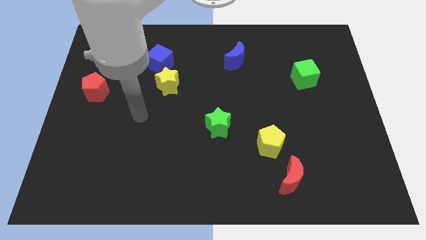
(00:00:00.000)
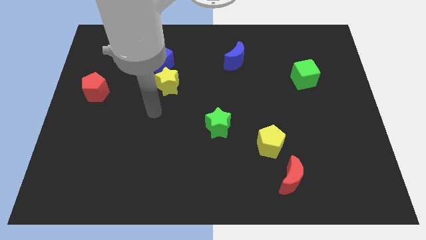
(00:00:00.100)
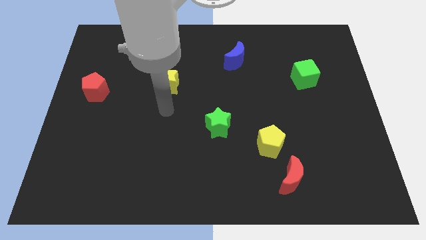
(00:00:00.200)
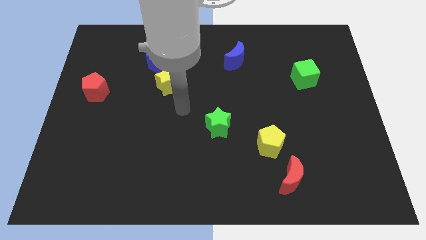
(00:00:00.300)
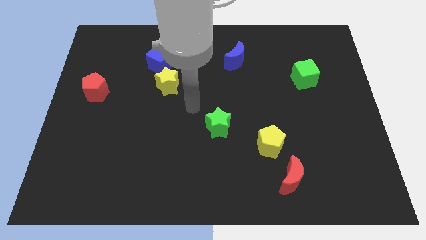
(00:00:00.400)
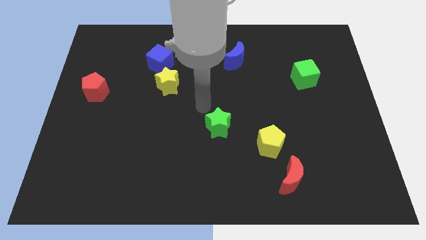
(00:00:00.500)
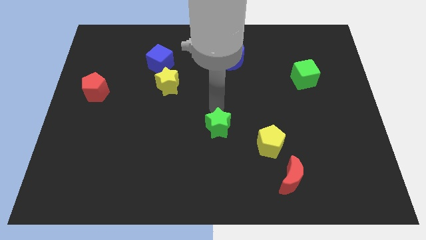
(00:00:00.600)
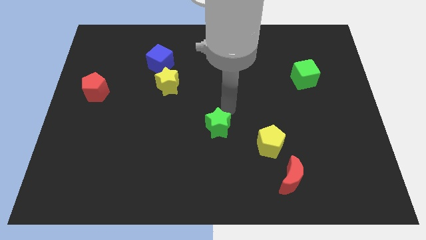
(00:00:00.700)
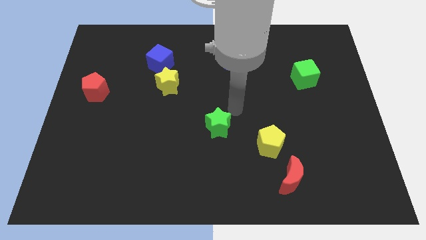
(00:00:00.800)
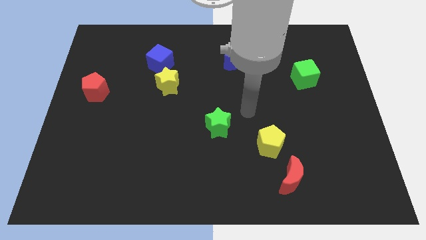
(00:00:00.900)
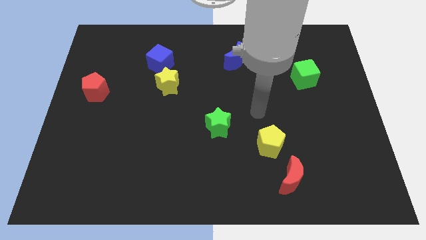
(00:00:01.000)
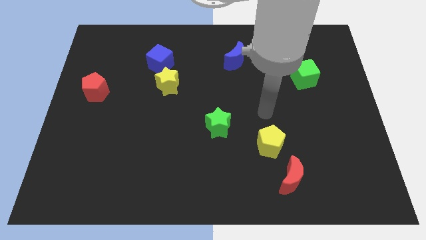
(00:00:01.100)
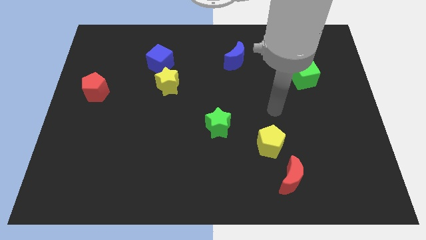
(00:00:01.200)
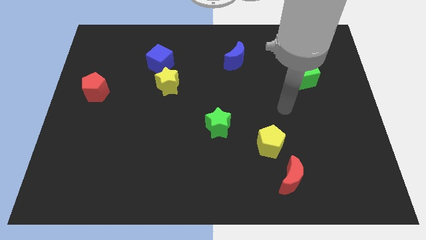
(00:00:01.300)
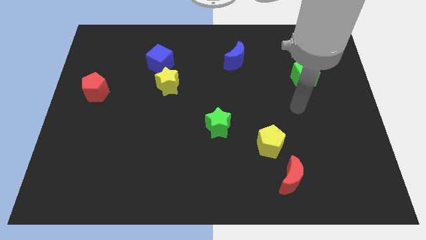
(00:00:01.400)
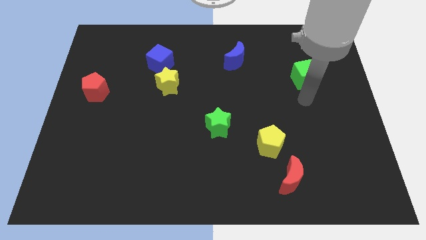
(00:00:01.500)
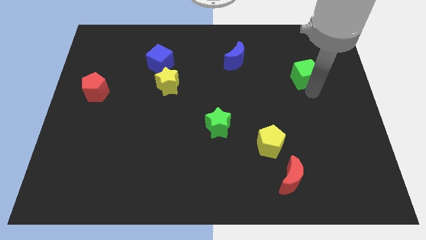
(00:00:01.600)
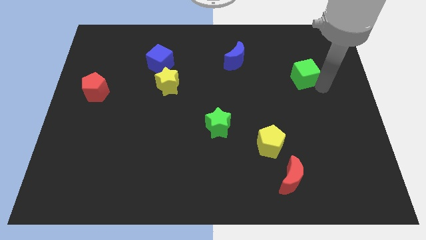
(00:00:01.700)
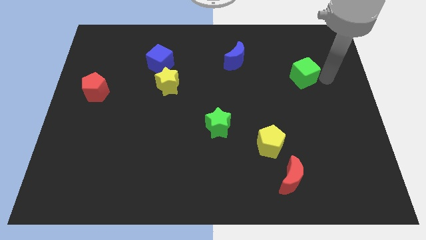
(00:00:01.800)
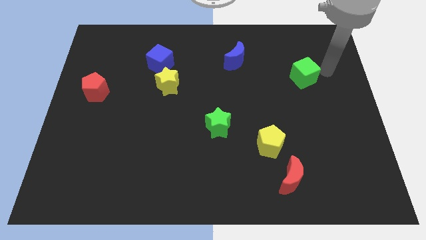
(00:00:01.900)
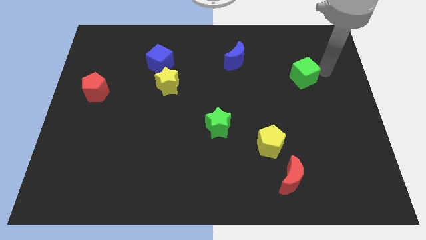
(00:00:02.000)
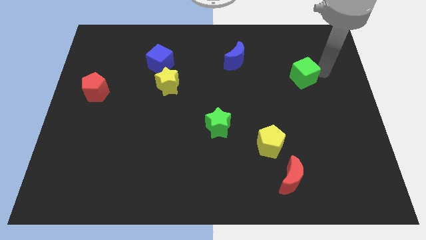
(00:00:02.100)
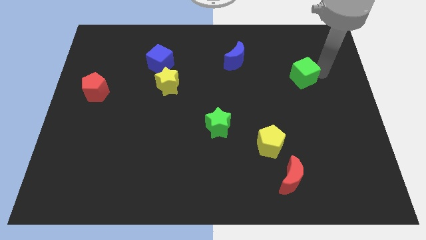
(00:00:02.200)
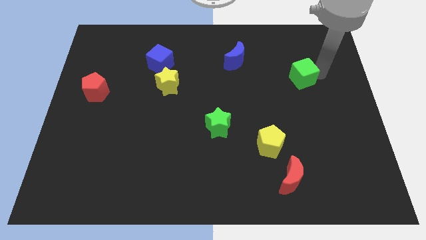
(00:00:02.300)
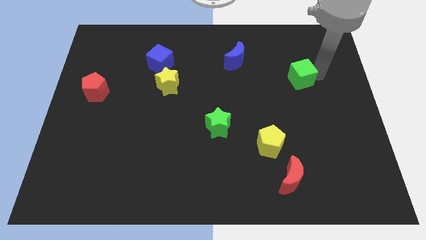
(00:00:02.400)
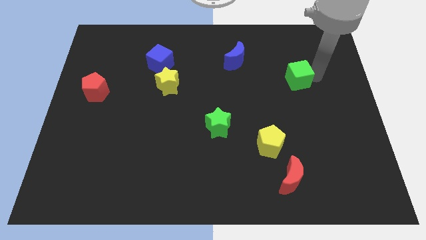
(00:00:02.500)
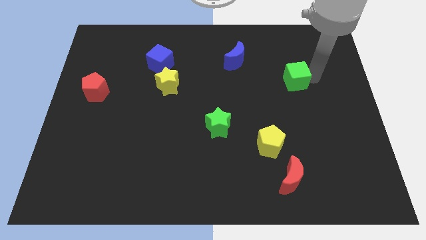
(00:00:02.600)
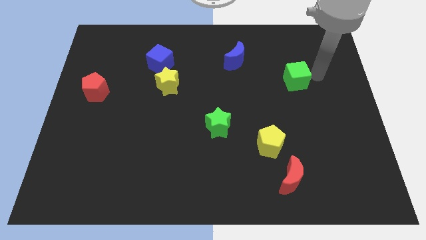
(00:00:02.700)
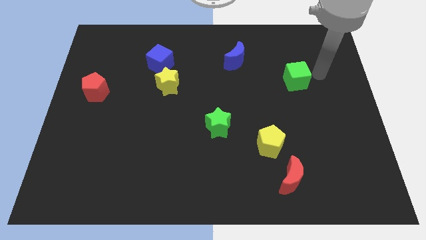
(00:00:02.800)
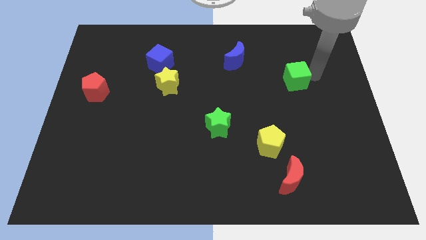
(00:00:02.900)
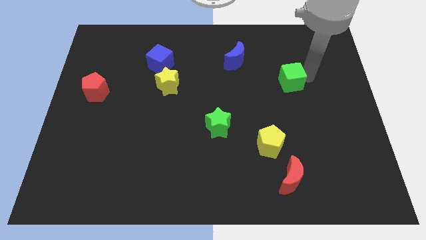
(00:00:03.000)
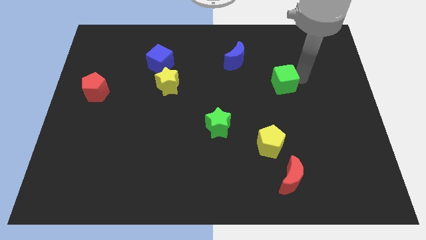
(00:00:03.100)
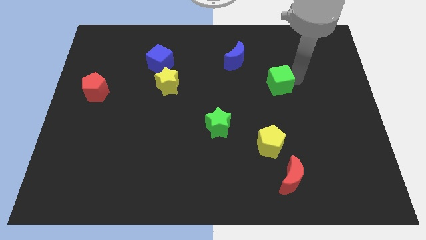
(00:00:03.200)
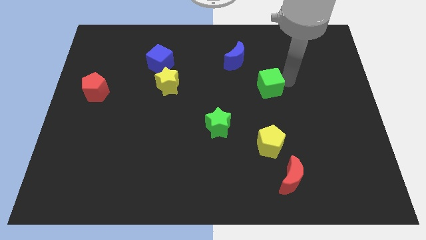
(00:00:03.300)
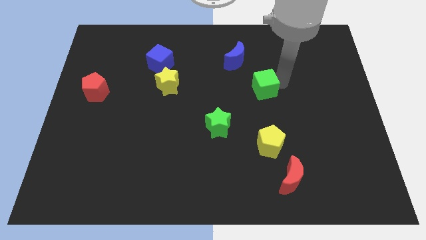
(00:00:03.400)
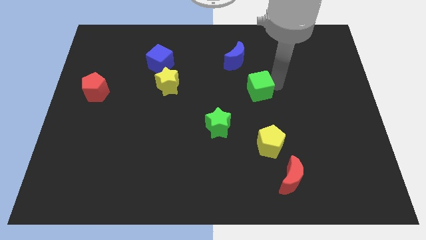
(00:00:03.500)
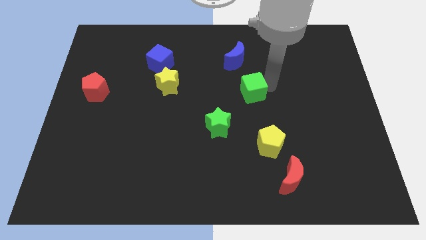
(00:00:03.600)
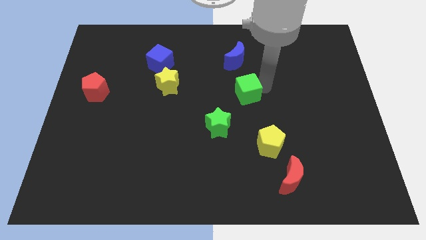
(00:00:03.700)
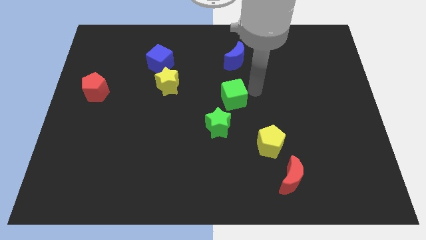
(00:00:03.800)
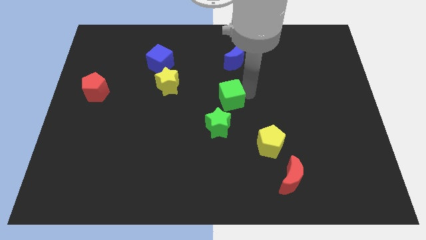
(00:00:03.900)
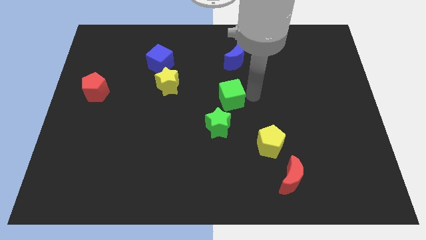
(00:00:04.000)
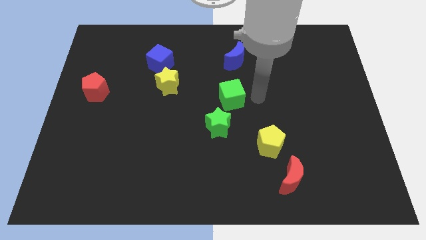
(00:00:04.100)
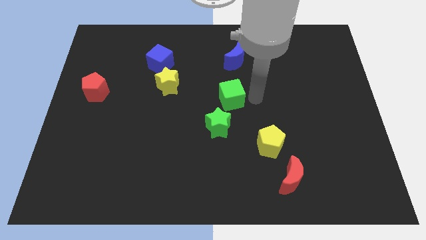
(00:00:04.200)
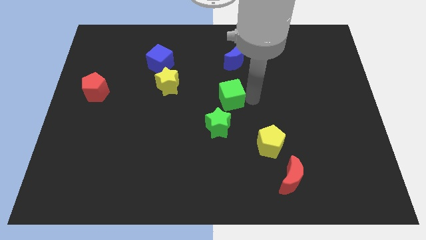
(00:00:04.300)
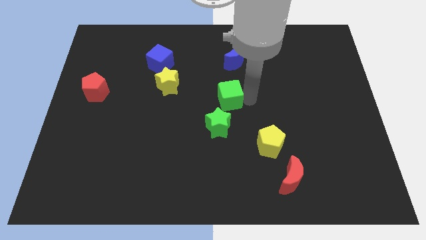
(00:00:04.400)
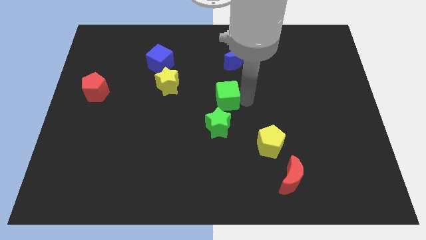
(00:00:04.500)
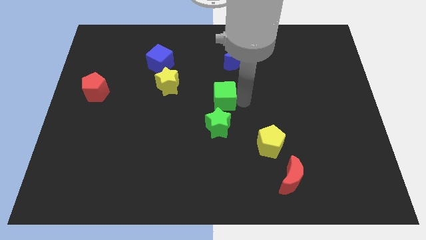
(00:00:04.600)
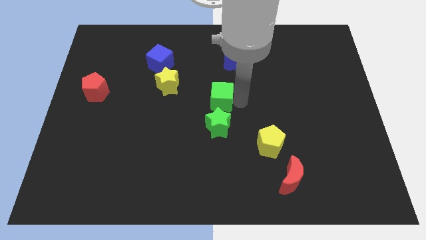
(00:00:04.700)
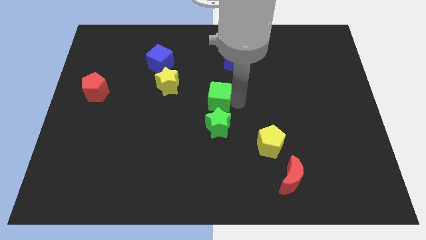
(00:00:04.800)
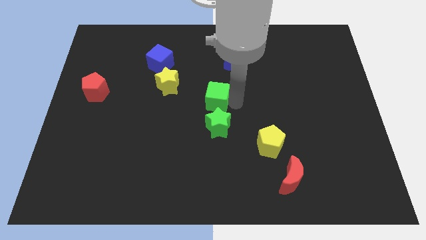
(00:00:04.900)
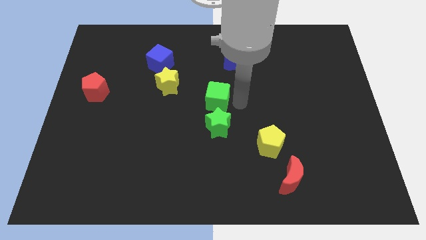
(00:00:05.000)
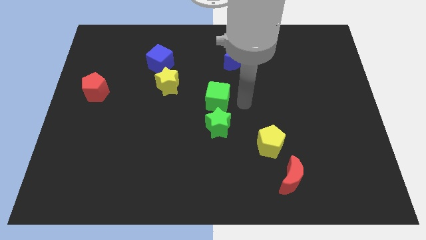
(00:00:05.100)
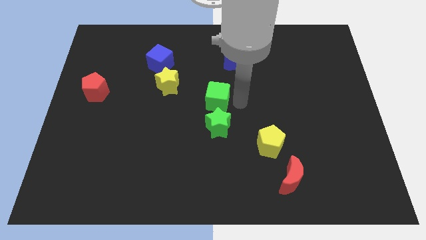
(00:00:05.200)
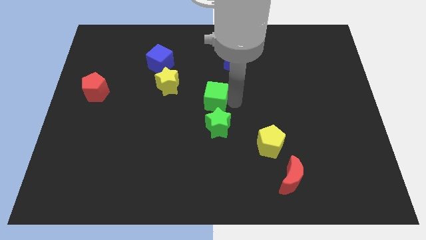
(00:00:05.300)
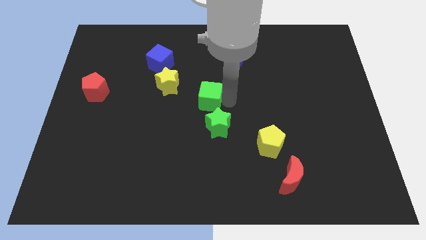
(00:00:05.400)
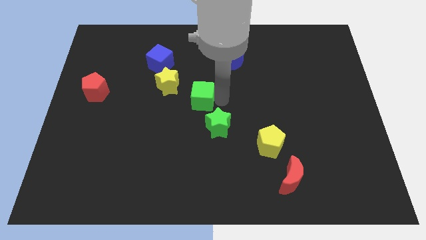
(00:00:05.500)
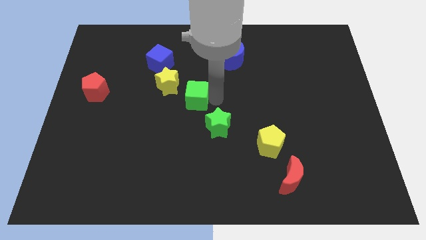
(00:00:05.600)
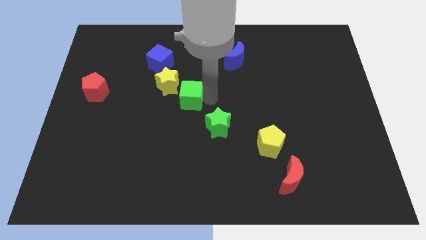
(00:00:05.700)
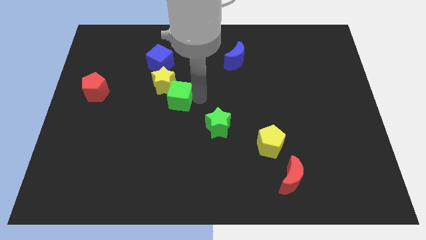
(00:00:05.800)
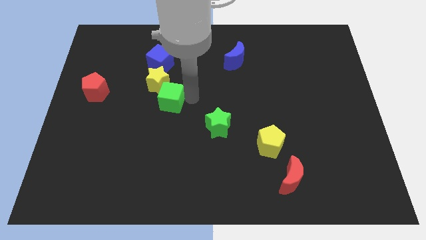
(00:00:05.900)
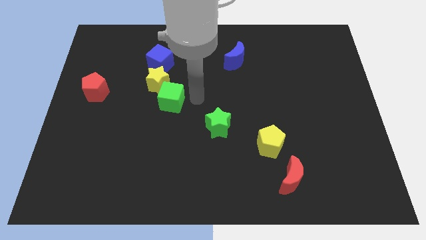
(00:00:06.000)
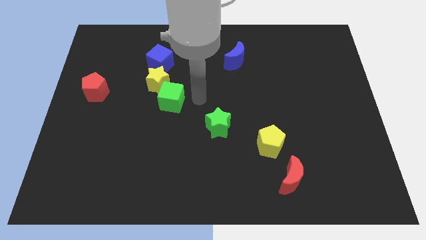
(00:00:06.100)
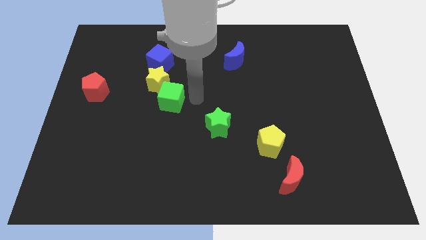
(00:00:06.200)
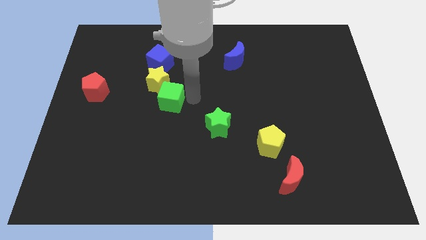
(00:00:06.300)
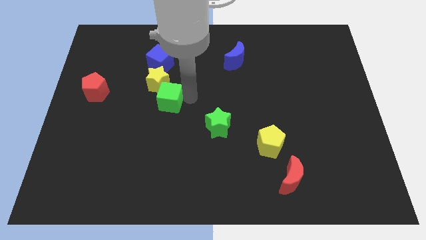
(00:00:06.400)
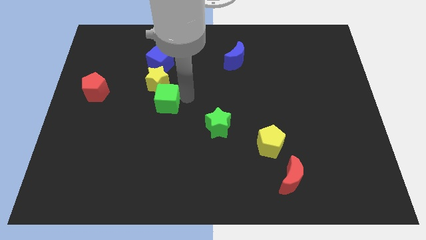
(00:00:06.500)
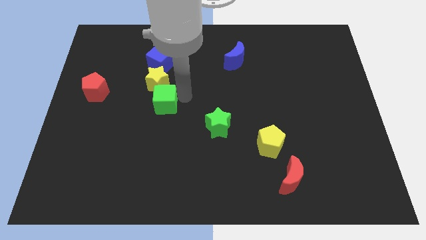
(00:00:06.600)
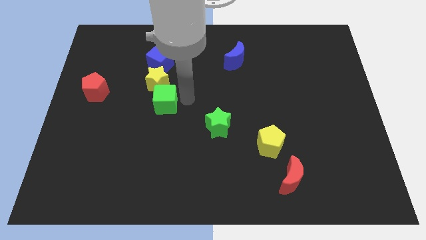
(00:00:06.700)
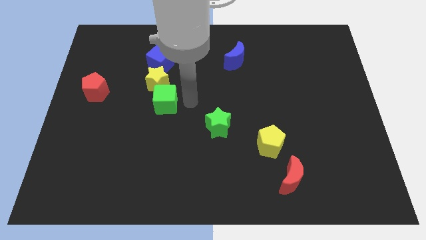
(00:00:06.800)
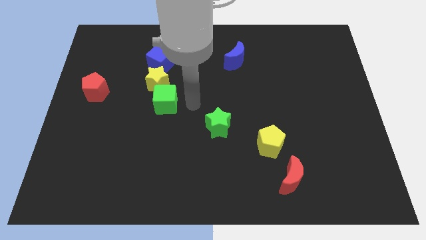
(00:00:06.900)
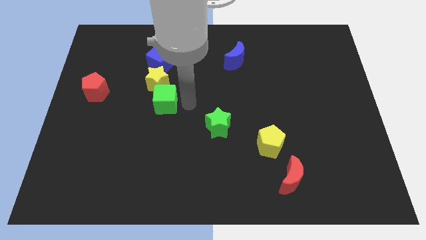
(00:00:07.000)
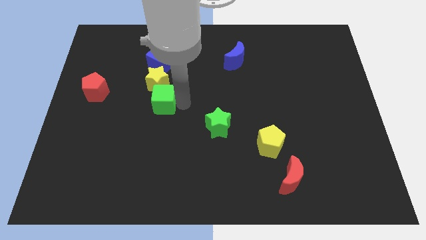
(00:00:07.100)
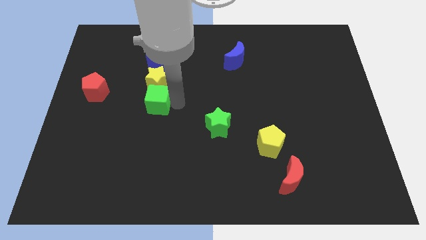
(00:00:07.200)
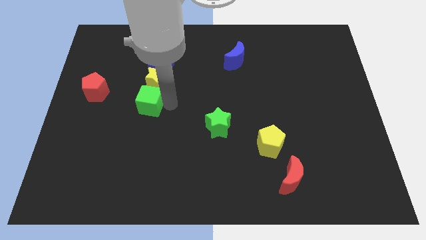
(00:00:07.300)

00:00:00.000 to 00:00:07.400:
move the green cube just right of the red pentagon
